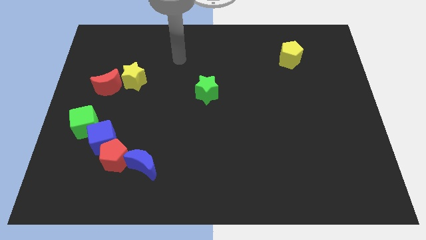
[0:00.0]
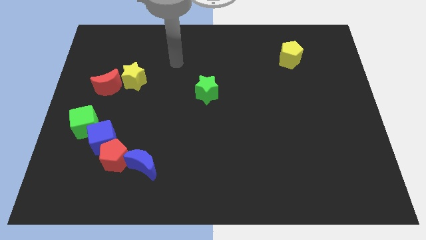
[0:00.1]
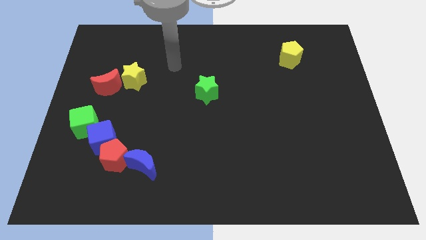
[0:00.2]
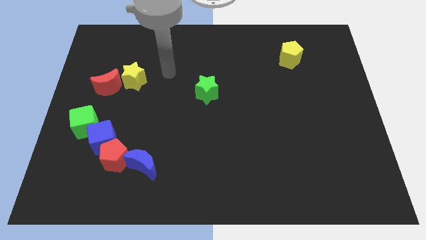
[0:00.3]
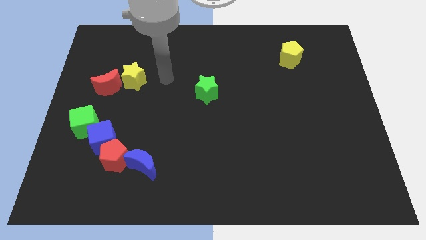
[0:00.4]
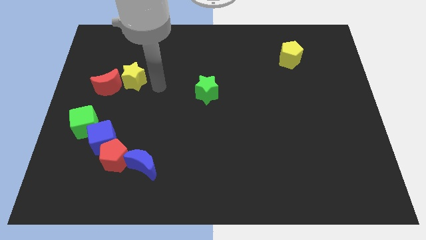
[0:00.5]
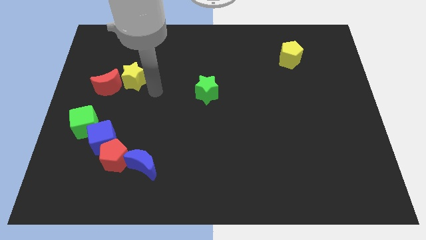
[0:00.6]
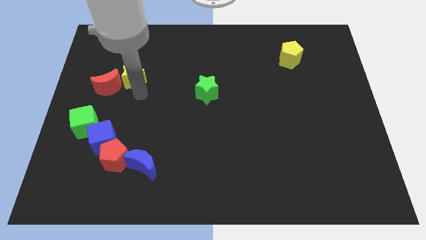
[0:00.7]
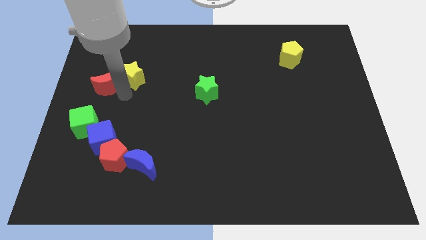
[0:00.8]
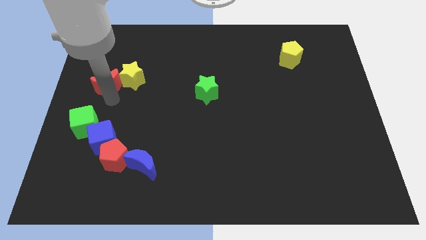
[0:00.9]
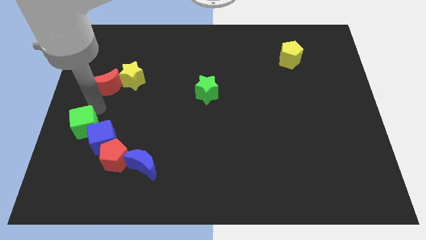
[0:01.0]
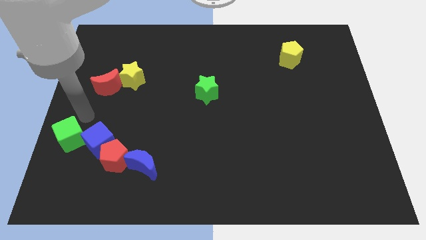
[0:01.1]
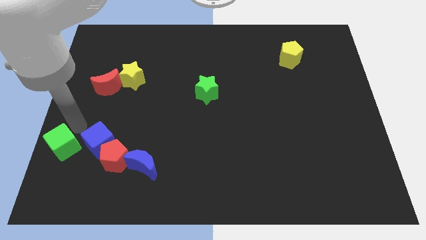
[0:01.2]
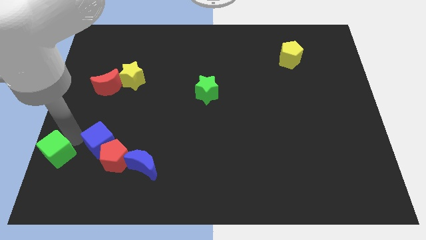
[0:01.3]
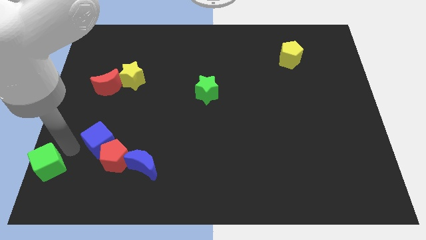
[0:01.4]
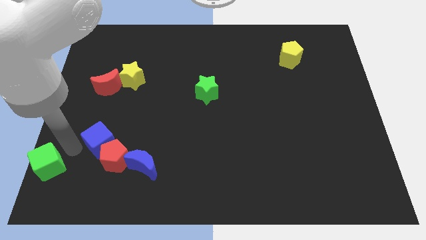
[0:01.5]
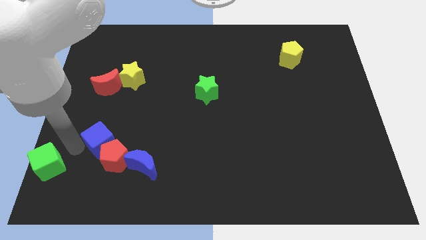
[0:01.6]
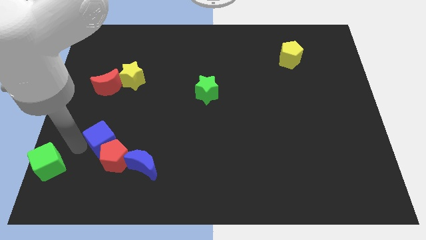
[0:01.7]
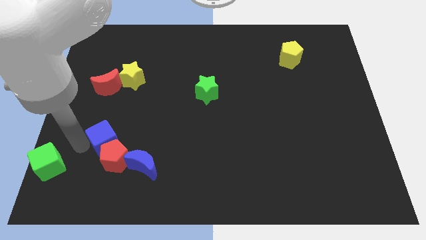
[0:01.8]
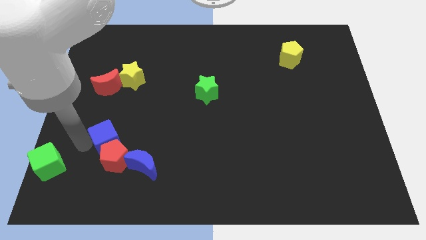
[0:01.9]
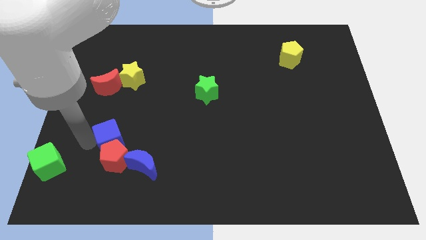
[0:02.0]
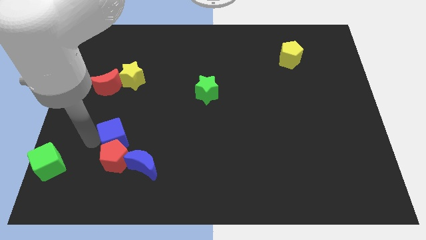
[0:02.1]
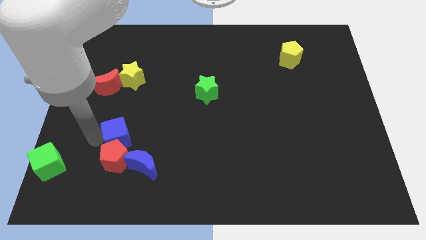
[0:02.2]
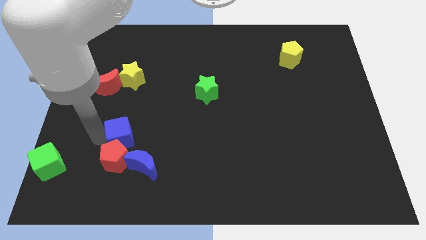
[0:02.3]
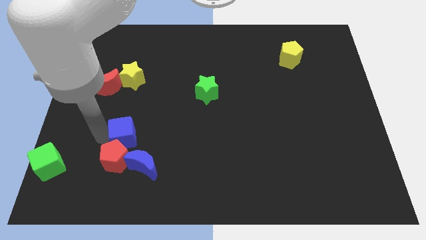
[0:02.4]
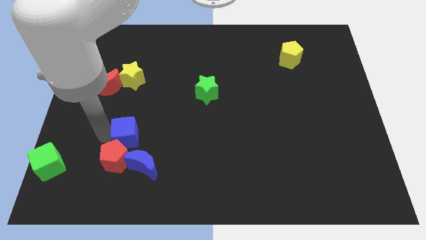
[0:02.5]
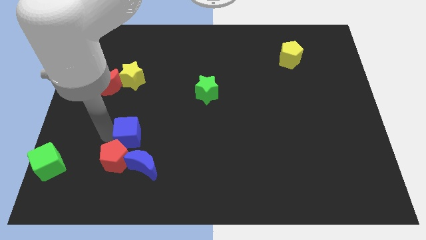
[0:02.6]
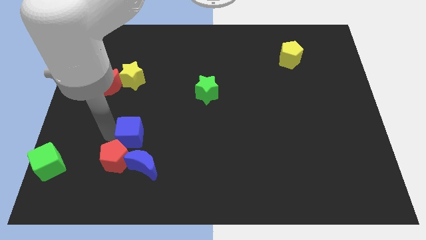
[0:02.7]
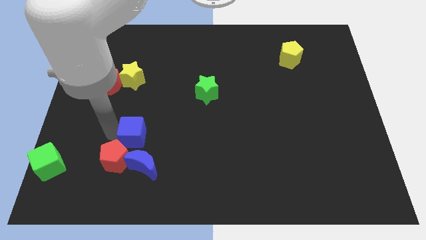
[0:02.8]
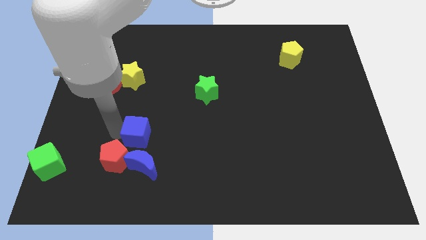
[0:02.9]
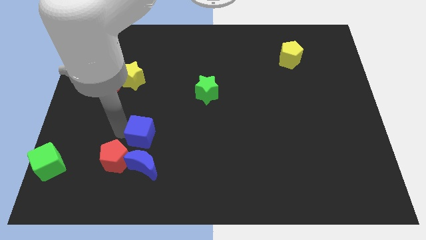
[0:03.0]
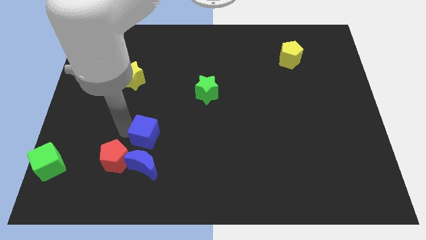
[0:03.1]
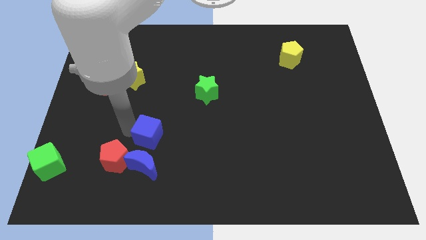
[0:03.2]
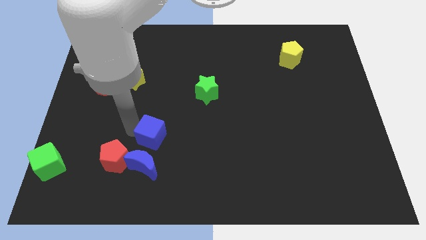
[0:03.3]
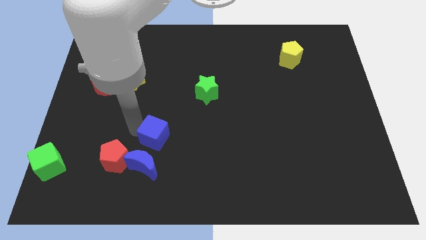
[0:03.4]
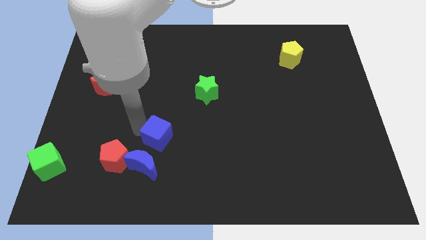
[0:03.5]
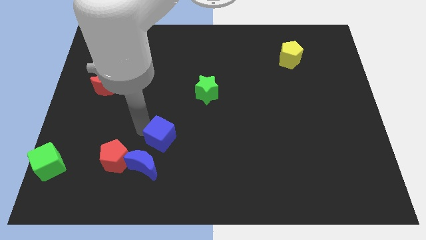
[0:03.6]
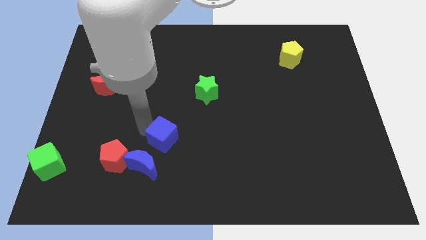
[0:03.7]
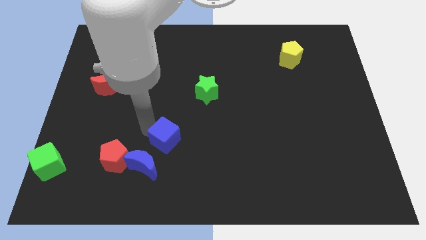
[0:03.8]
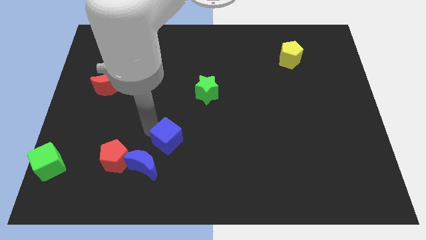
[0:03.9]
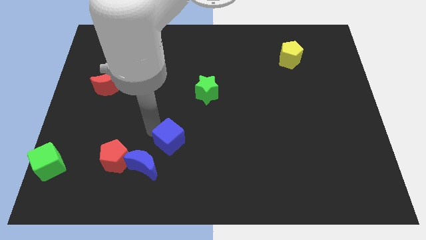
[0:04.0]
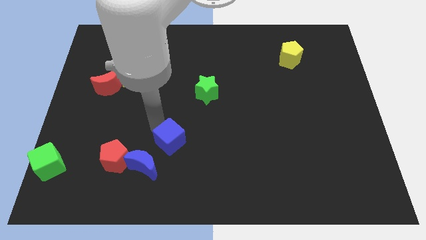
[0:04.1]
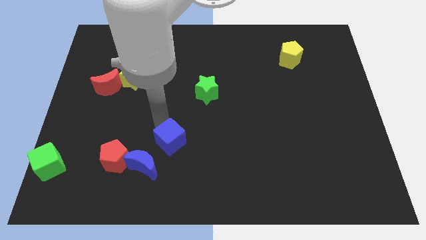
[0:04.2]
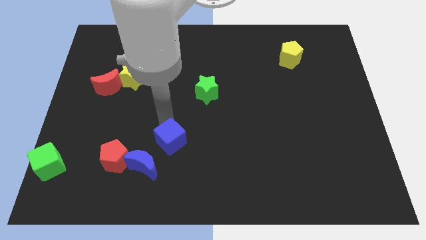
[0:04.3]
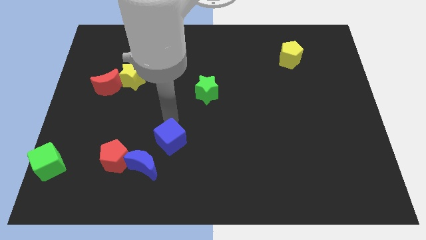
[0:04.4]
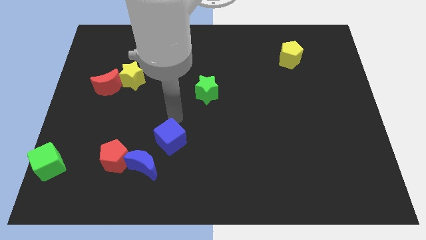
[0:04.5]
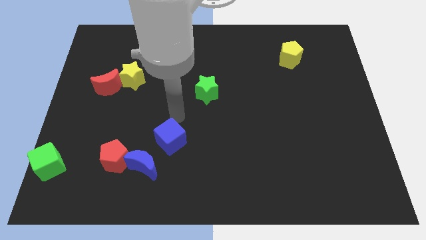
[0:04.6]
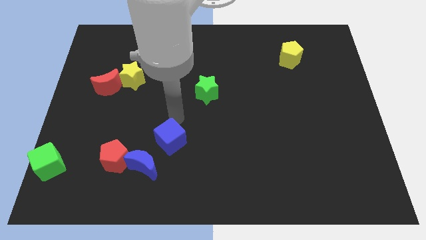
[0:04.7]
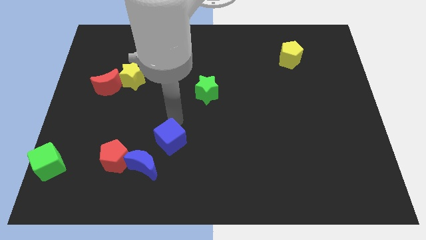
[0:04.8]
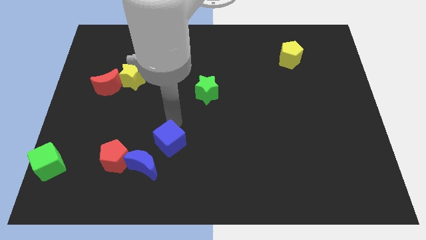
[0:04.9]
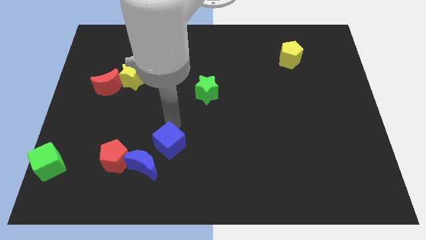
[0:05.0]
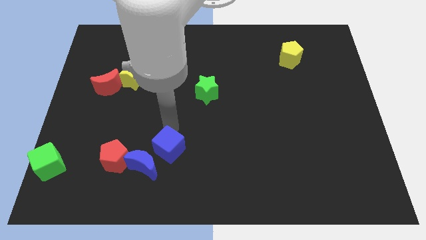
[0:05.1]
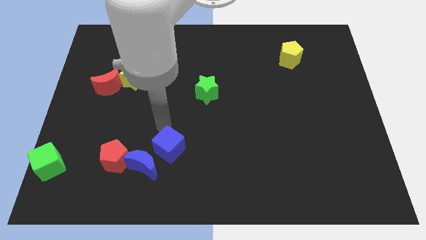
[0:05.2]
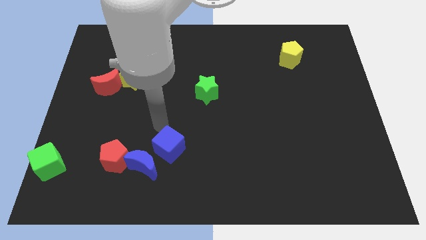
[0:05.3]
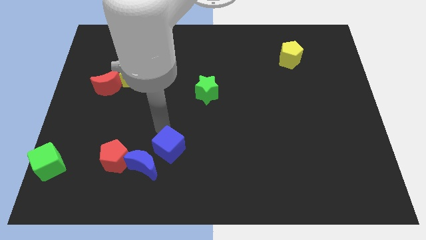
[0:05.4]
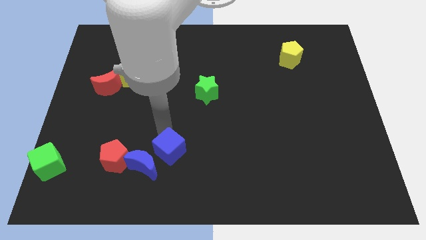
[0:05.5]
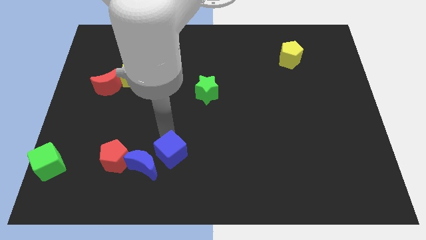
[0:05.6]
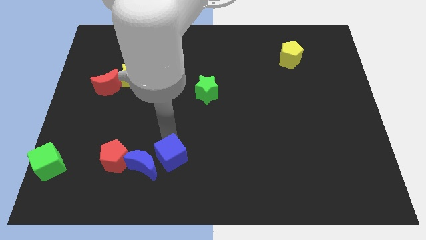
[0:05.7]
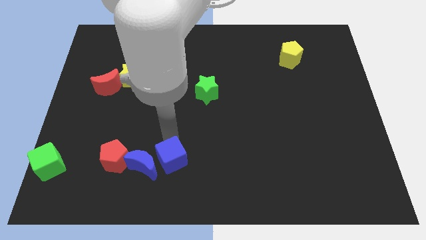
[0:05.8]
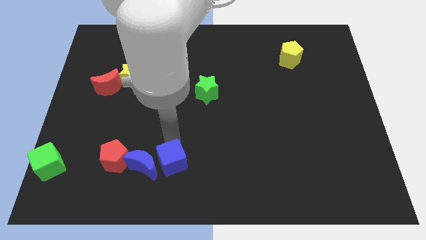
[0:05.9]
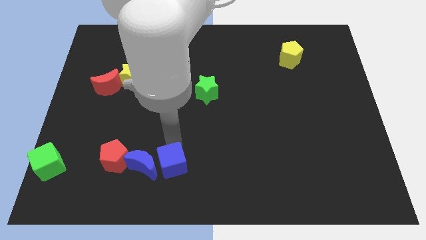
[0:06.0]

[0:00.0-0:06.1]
push the blue cube to the bottom

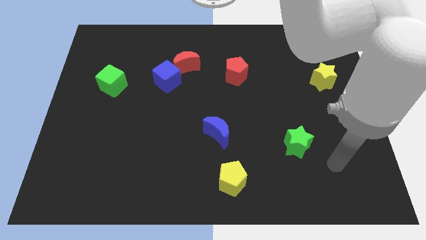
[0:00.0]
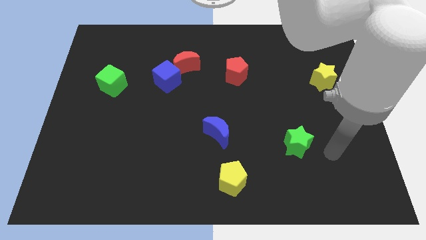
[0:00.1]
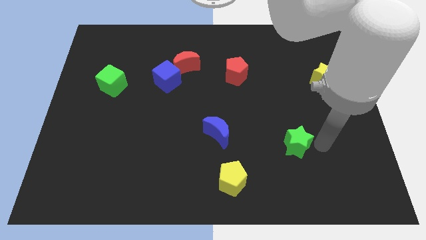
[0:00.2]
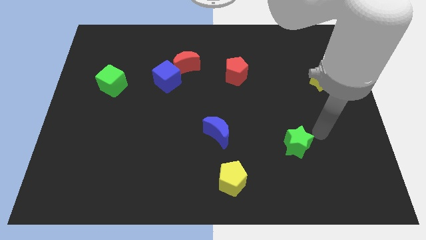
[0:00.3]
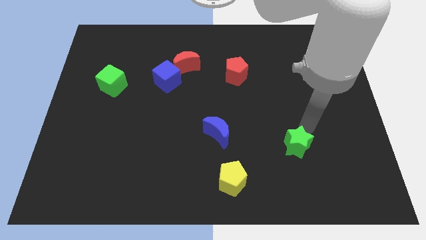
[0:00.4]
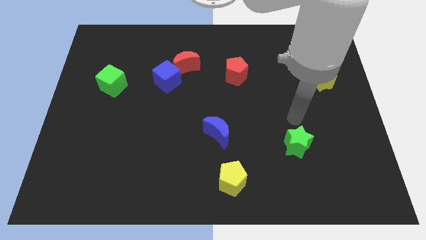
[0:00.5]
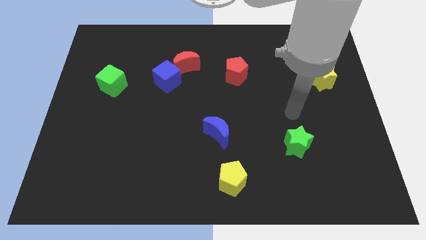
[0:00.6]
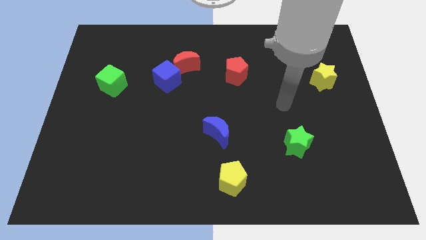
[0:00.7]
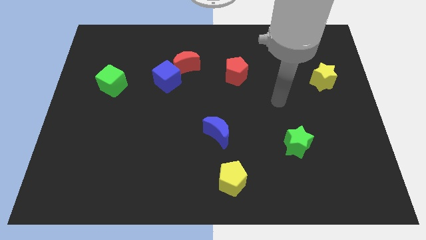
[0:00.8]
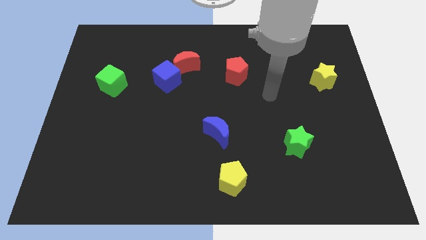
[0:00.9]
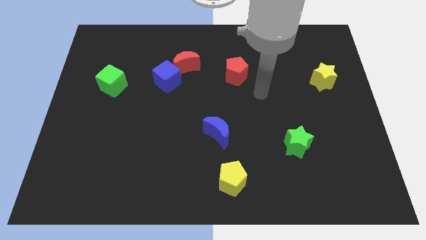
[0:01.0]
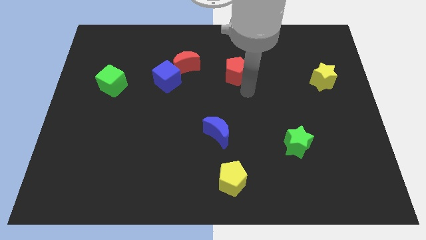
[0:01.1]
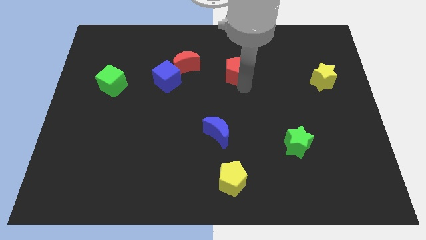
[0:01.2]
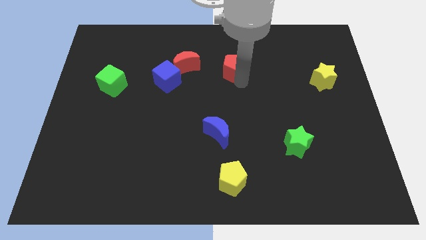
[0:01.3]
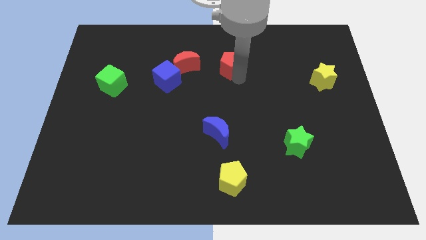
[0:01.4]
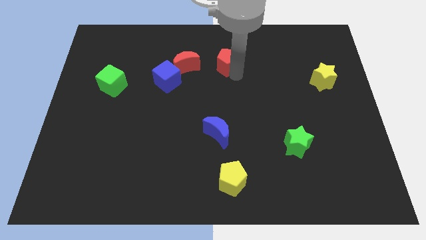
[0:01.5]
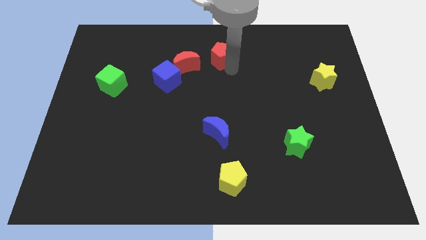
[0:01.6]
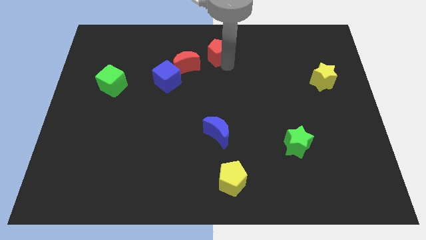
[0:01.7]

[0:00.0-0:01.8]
slide the red pentagon to the top side
